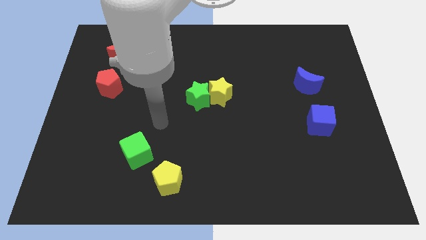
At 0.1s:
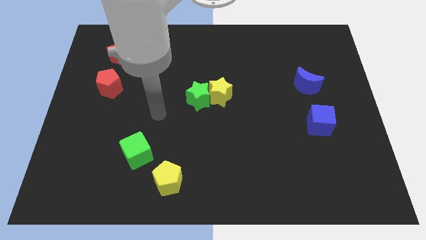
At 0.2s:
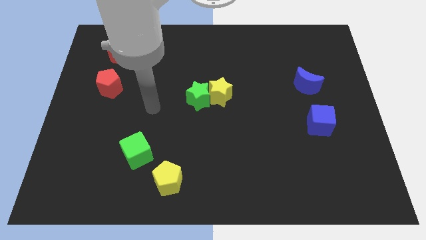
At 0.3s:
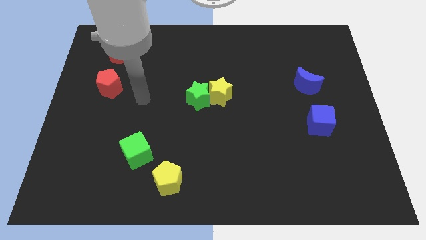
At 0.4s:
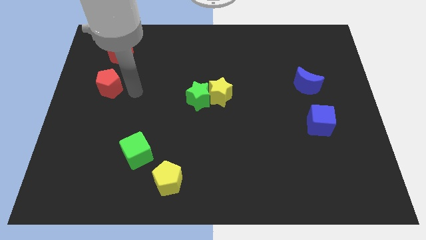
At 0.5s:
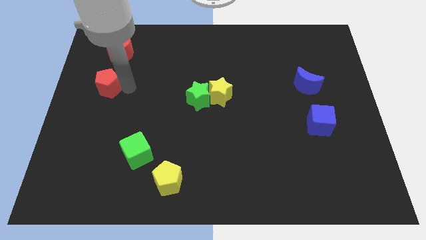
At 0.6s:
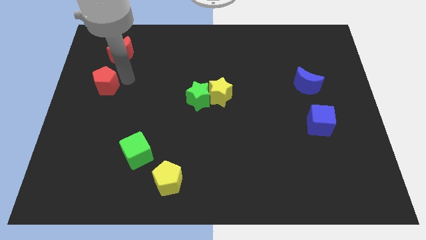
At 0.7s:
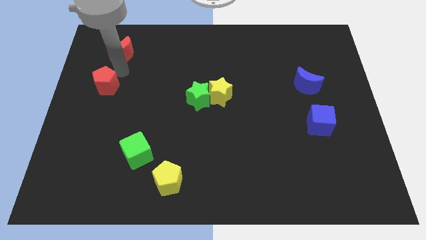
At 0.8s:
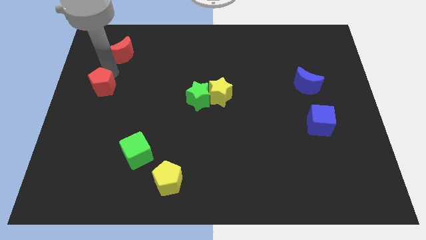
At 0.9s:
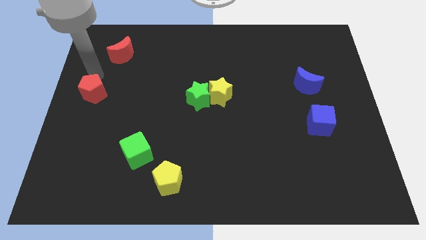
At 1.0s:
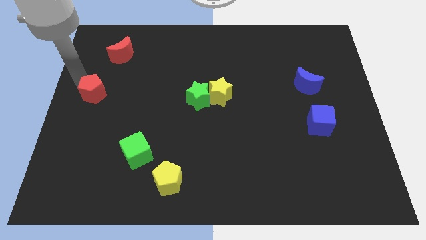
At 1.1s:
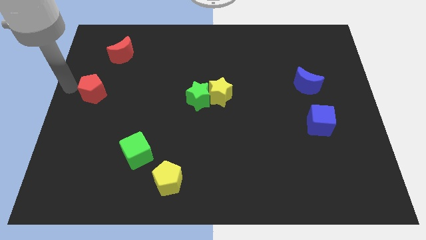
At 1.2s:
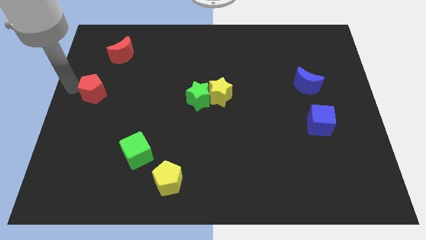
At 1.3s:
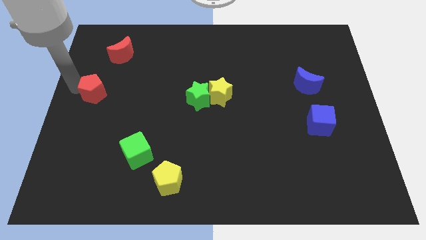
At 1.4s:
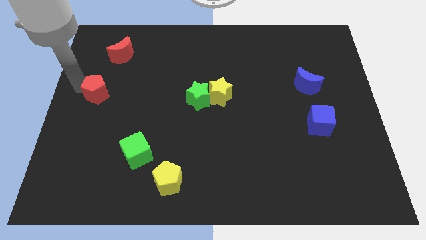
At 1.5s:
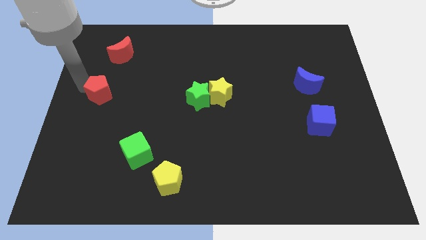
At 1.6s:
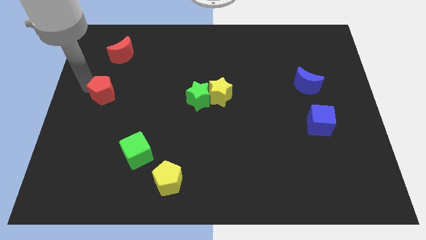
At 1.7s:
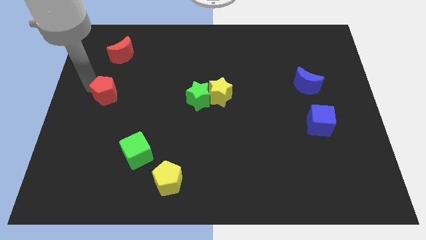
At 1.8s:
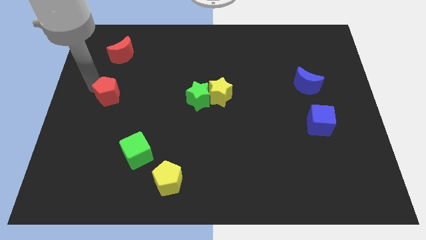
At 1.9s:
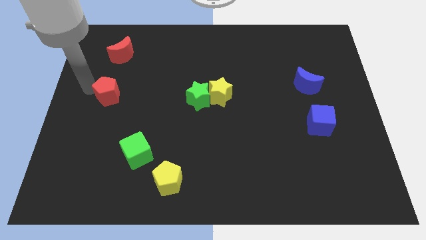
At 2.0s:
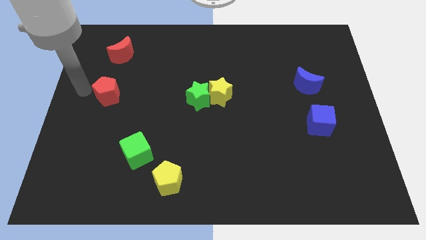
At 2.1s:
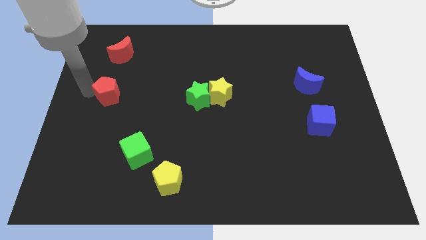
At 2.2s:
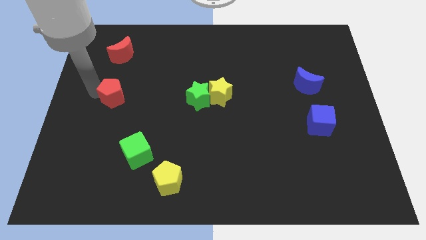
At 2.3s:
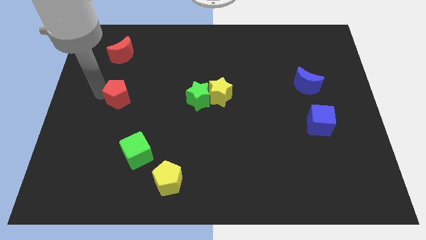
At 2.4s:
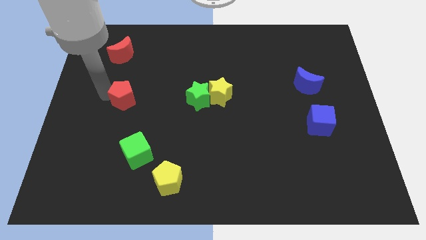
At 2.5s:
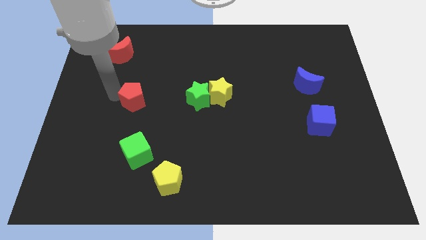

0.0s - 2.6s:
move the red pentagon diagonally down and to the right a little bit

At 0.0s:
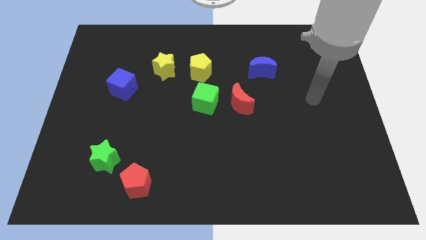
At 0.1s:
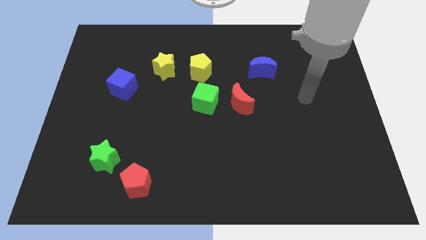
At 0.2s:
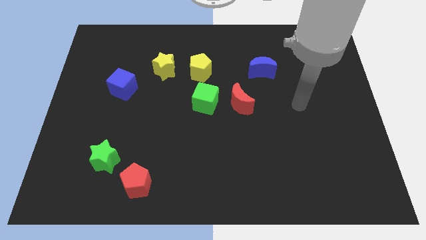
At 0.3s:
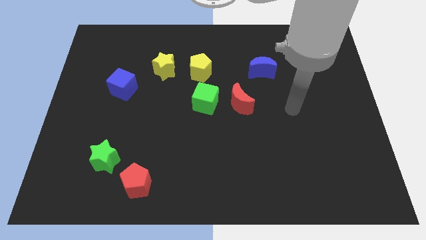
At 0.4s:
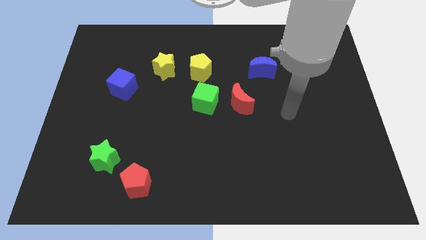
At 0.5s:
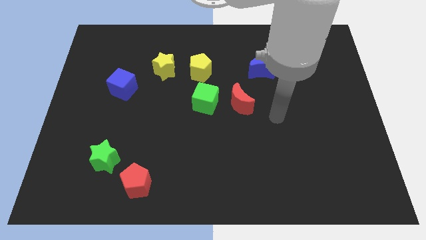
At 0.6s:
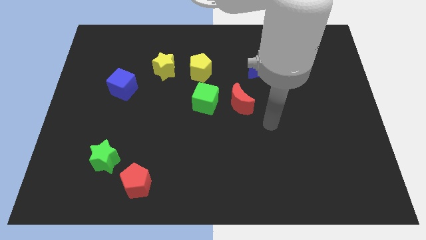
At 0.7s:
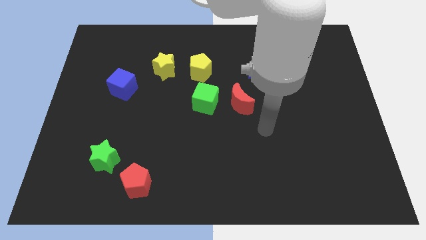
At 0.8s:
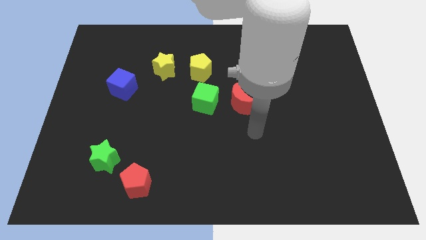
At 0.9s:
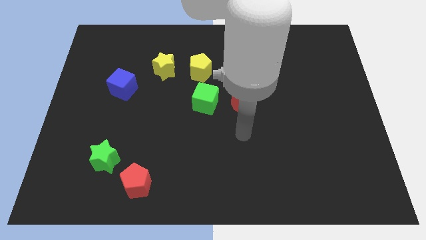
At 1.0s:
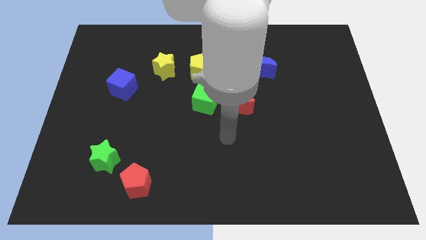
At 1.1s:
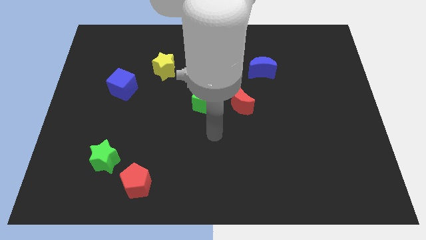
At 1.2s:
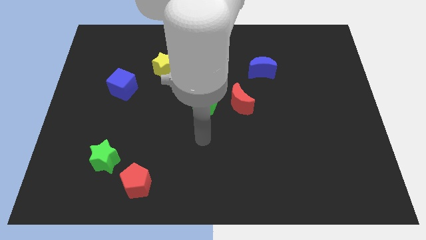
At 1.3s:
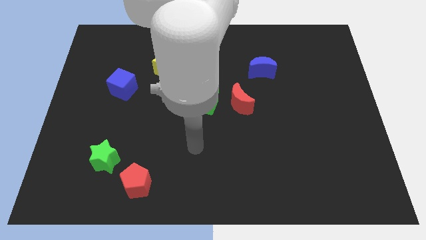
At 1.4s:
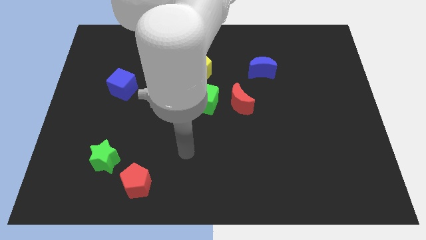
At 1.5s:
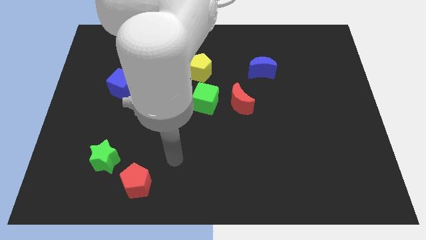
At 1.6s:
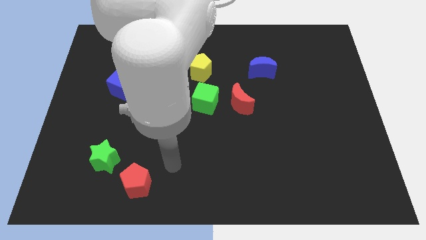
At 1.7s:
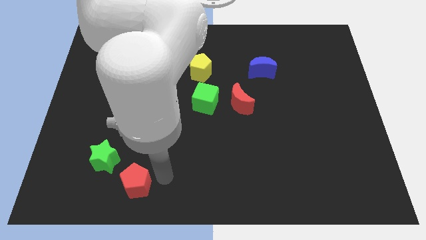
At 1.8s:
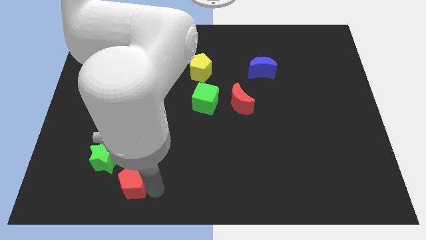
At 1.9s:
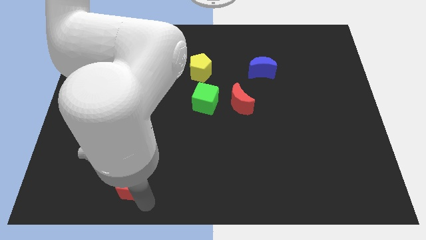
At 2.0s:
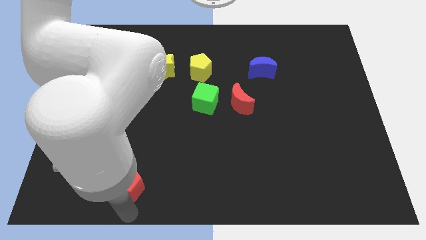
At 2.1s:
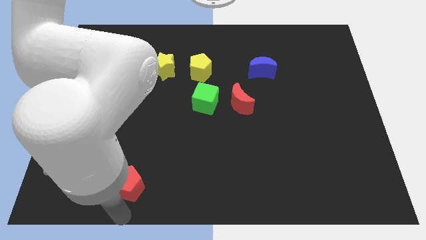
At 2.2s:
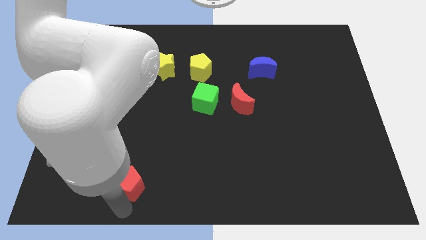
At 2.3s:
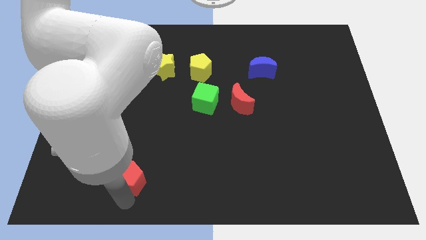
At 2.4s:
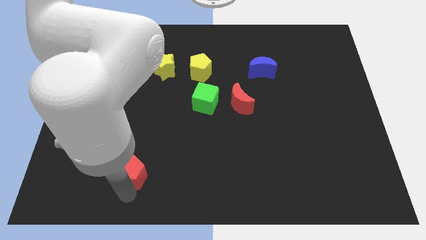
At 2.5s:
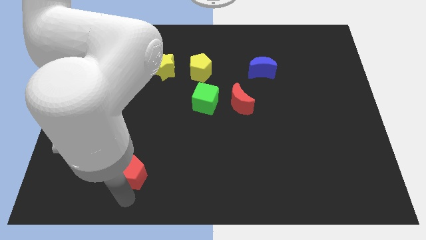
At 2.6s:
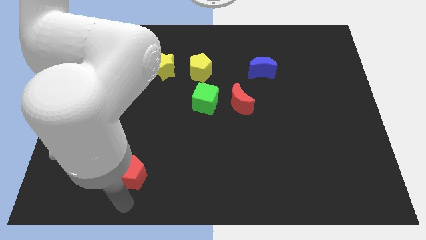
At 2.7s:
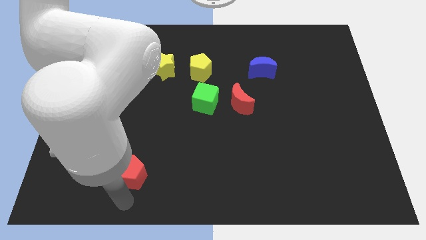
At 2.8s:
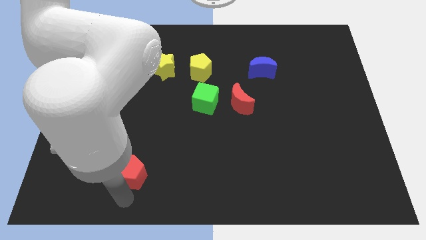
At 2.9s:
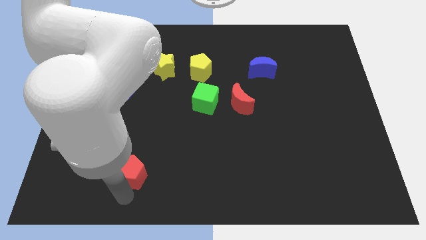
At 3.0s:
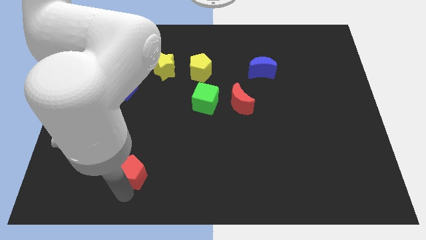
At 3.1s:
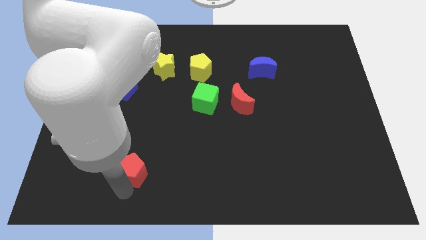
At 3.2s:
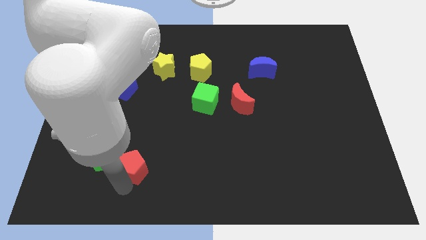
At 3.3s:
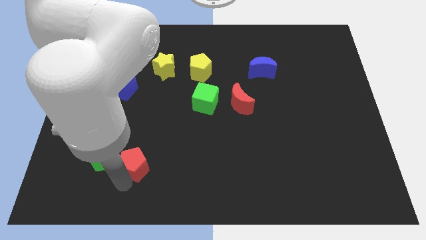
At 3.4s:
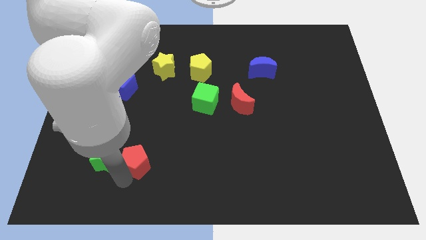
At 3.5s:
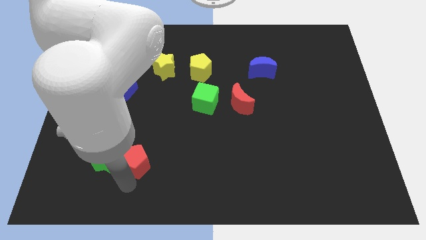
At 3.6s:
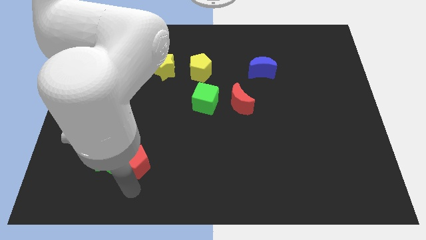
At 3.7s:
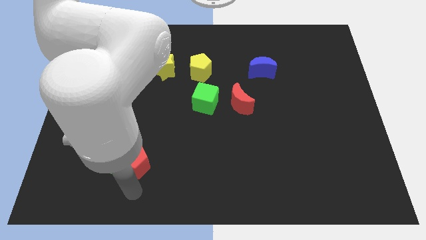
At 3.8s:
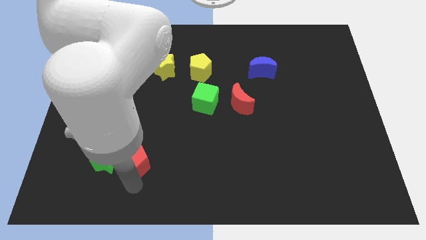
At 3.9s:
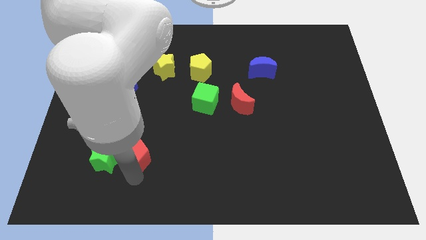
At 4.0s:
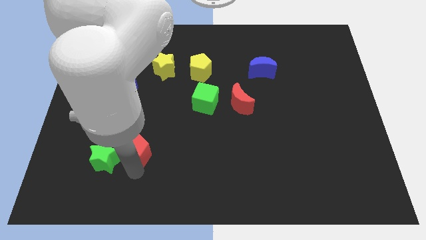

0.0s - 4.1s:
push the red pentagon up a bit

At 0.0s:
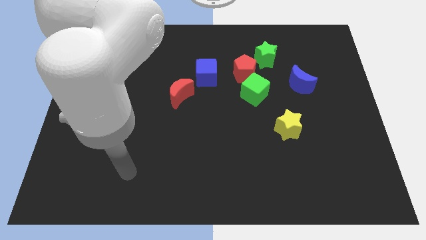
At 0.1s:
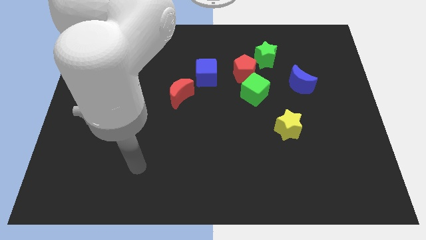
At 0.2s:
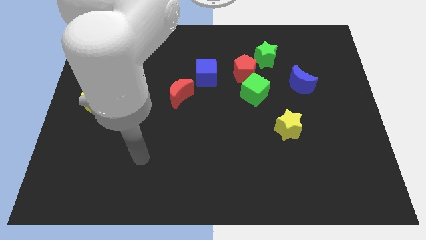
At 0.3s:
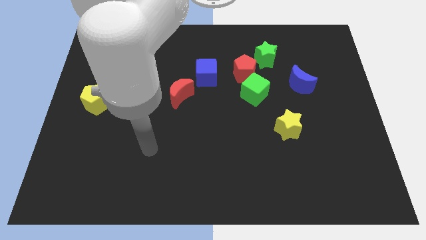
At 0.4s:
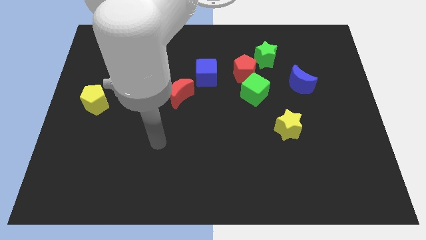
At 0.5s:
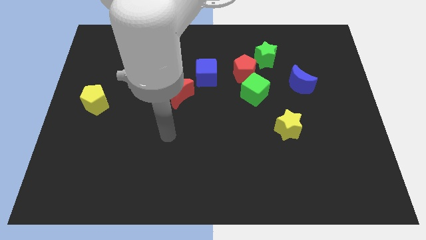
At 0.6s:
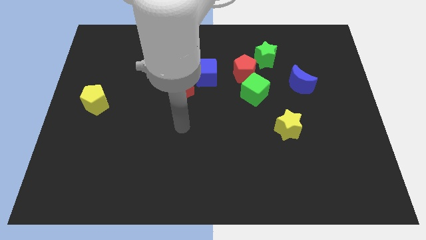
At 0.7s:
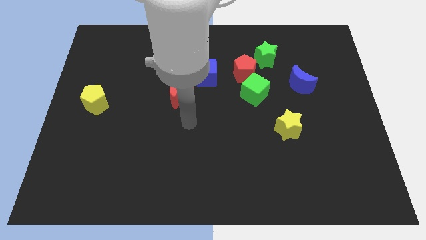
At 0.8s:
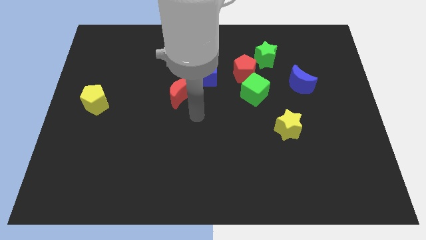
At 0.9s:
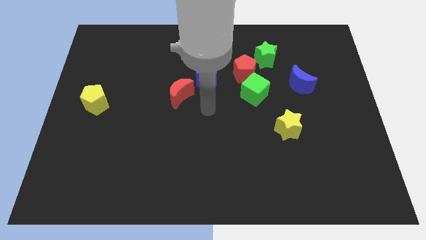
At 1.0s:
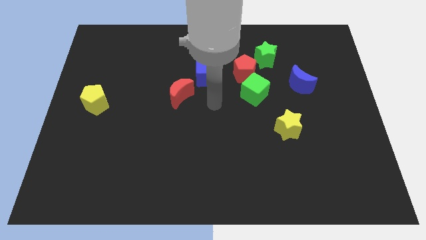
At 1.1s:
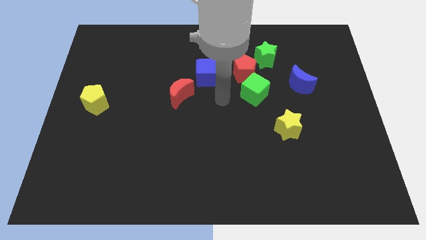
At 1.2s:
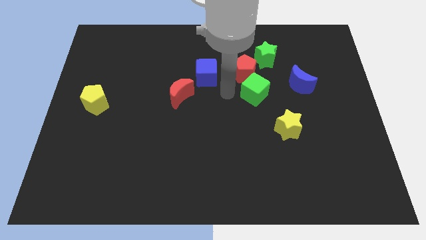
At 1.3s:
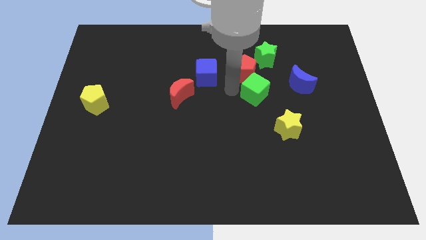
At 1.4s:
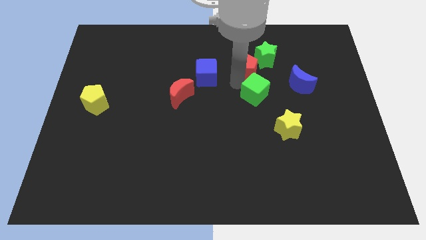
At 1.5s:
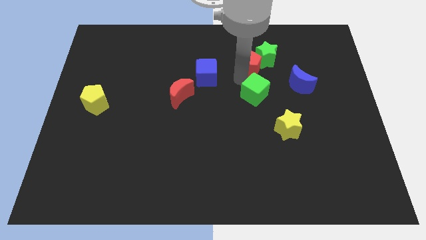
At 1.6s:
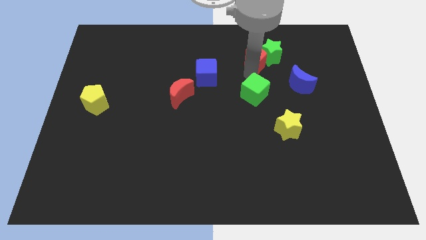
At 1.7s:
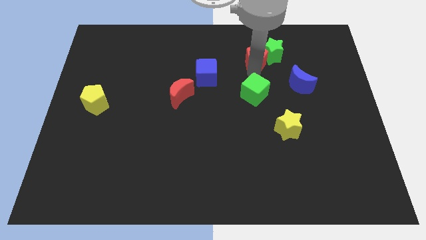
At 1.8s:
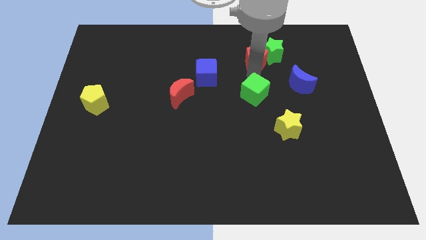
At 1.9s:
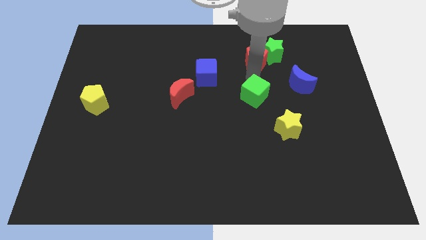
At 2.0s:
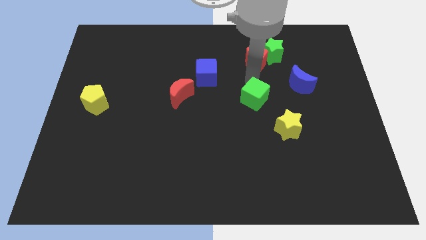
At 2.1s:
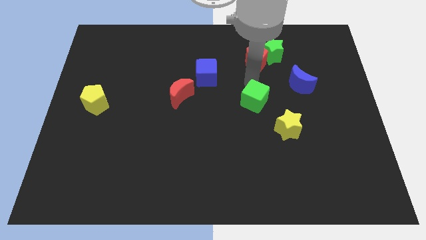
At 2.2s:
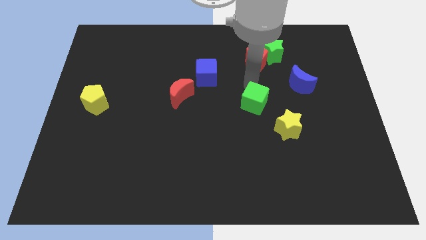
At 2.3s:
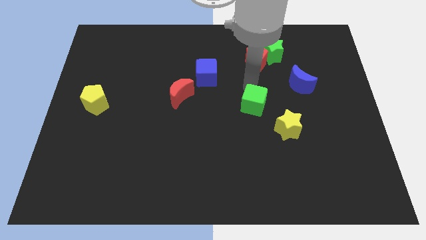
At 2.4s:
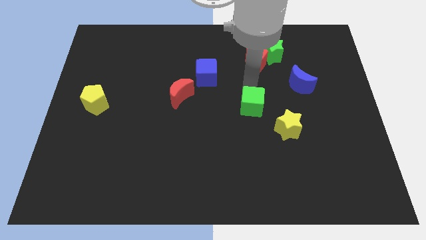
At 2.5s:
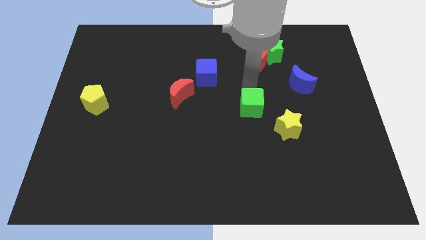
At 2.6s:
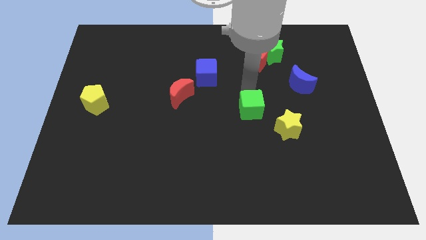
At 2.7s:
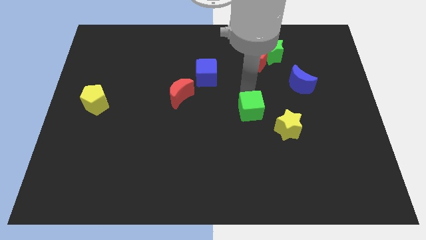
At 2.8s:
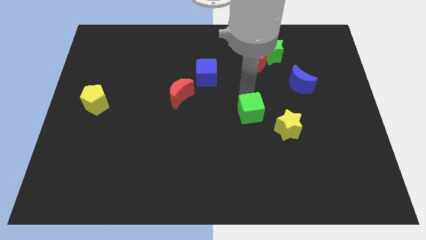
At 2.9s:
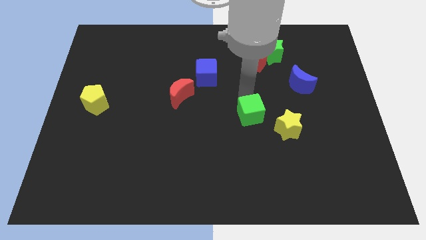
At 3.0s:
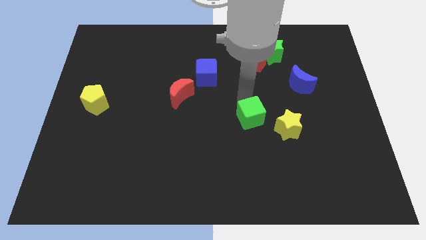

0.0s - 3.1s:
slightly move the green cube downwards
